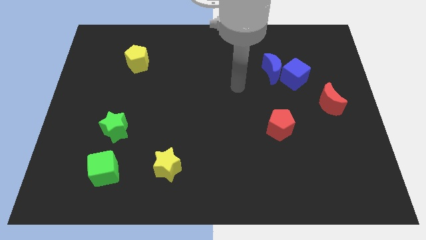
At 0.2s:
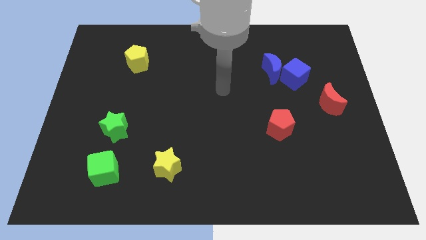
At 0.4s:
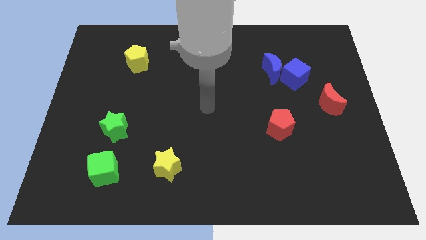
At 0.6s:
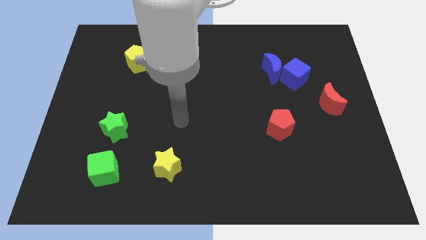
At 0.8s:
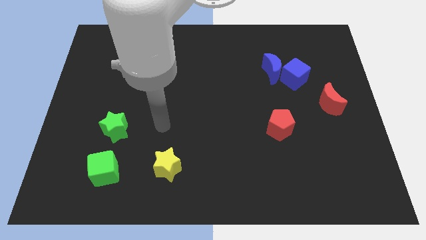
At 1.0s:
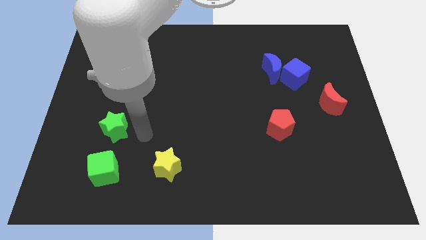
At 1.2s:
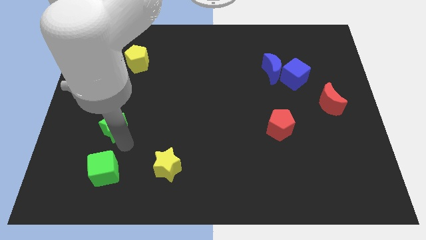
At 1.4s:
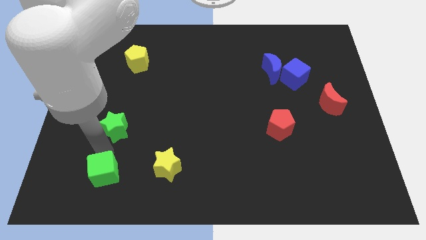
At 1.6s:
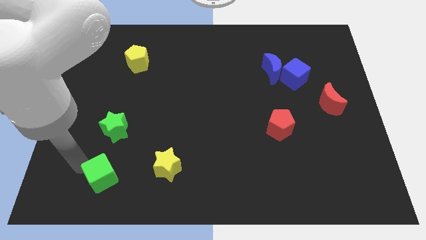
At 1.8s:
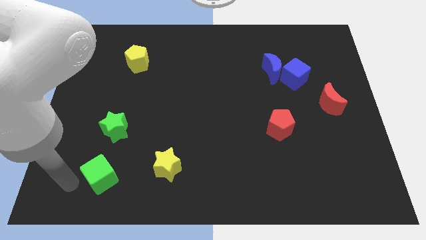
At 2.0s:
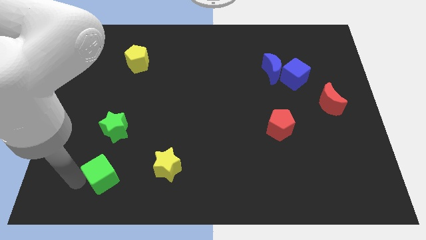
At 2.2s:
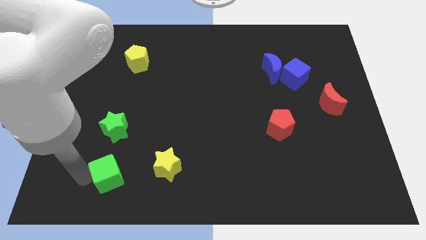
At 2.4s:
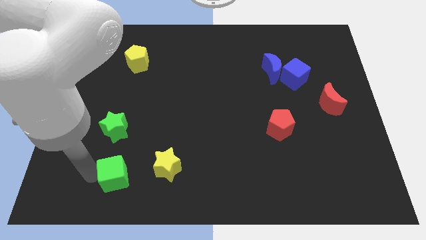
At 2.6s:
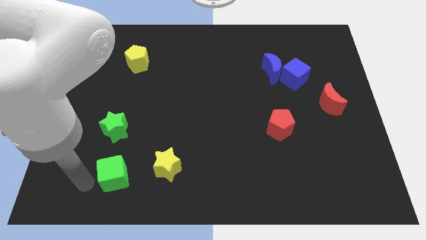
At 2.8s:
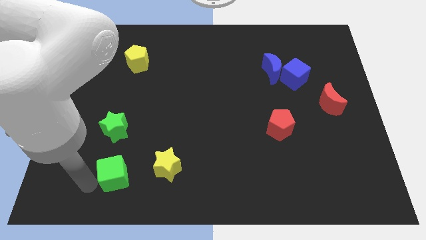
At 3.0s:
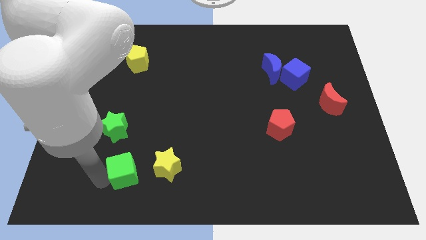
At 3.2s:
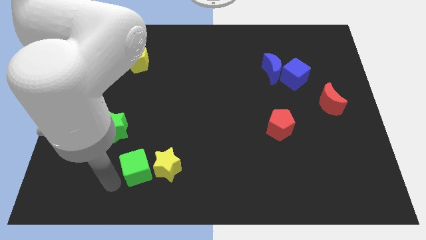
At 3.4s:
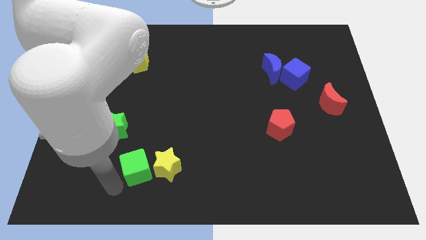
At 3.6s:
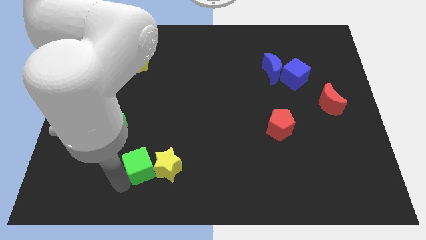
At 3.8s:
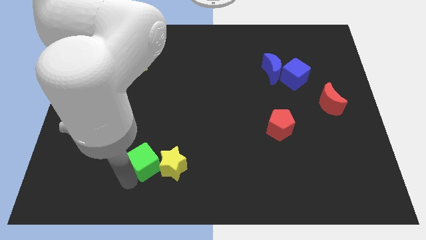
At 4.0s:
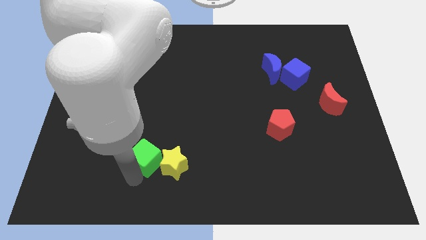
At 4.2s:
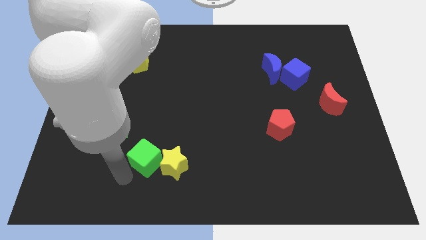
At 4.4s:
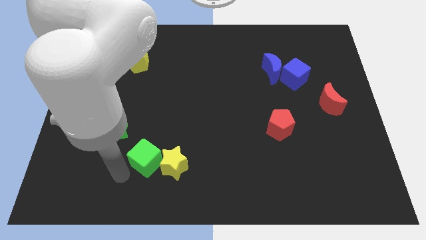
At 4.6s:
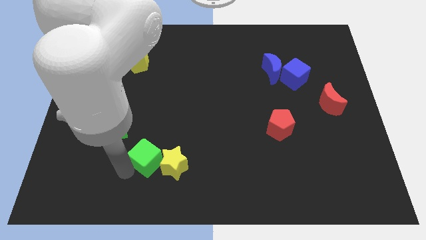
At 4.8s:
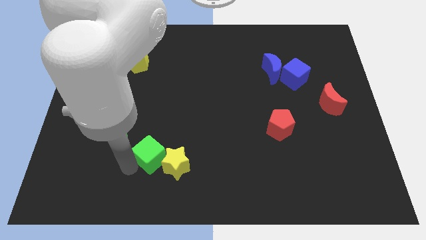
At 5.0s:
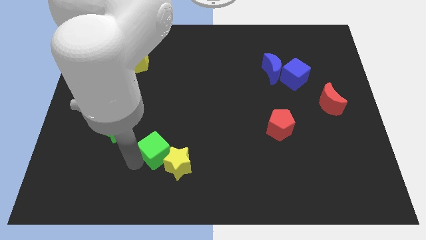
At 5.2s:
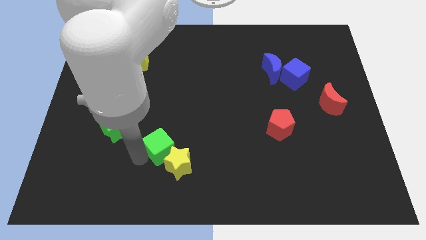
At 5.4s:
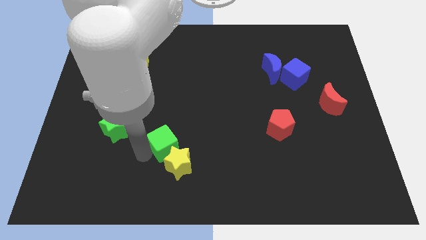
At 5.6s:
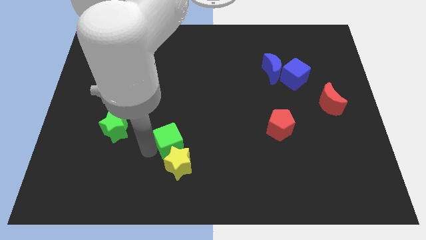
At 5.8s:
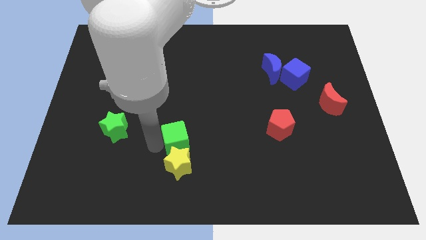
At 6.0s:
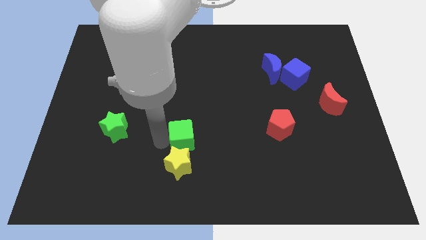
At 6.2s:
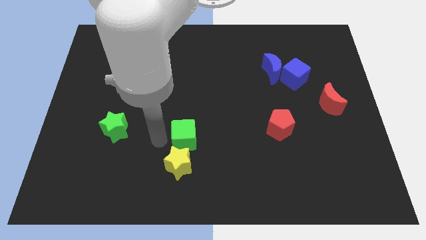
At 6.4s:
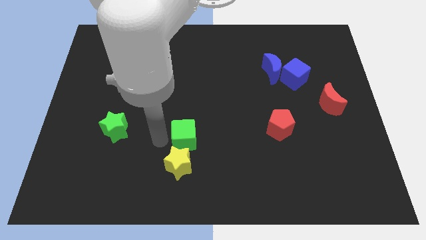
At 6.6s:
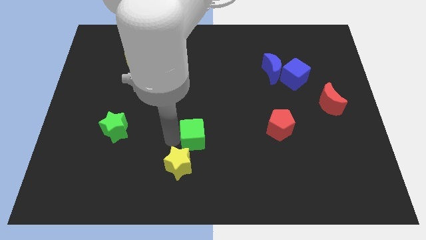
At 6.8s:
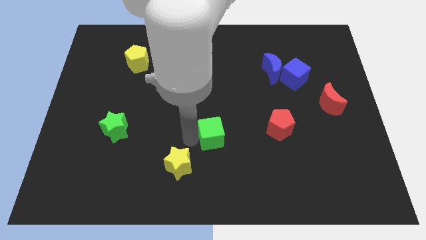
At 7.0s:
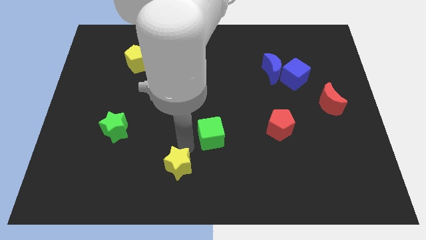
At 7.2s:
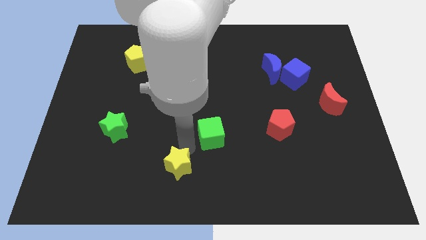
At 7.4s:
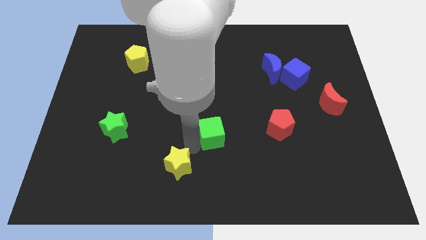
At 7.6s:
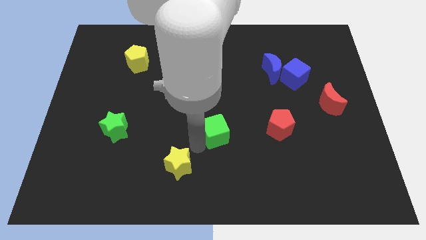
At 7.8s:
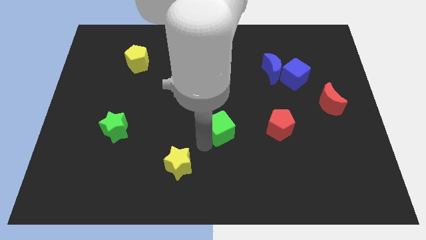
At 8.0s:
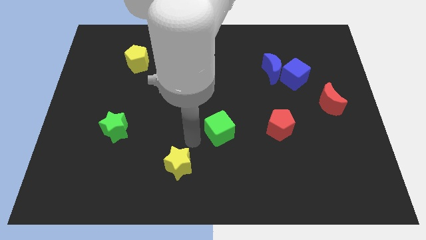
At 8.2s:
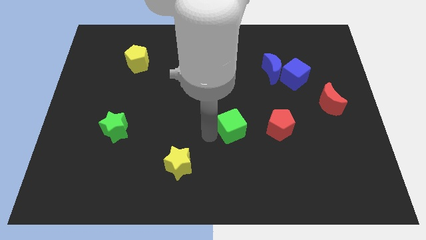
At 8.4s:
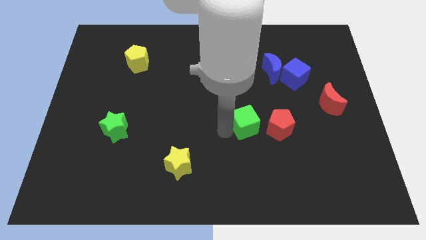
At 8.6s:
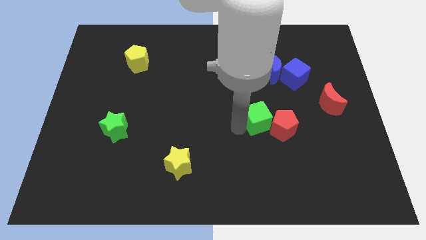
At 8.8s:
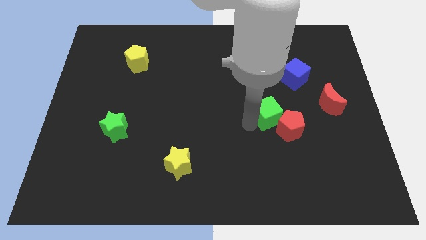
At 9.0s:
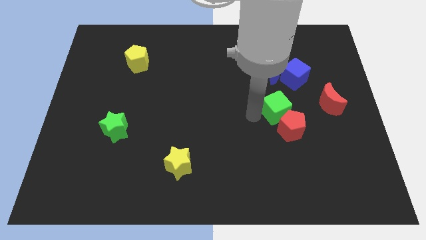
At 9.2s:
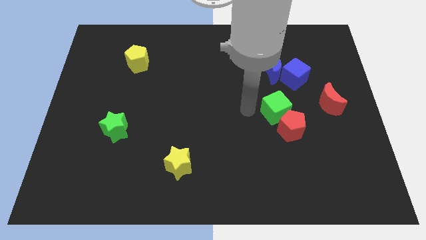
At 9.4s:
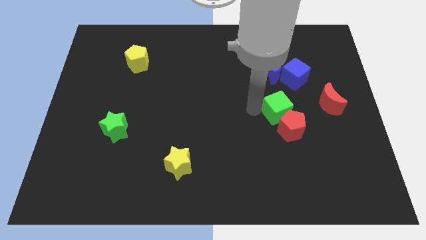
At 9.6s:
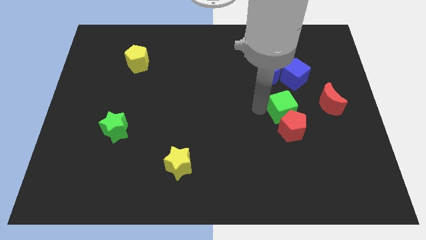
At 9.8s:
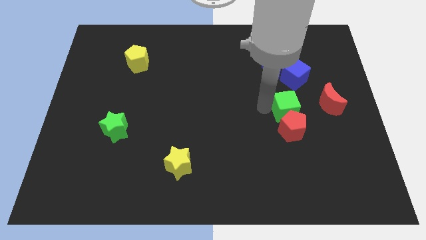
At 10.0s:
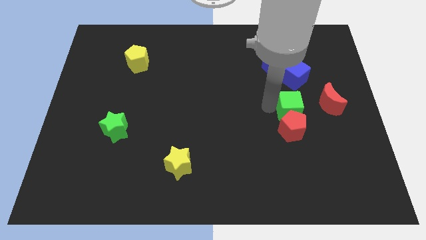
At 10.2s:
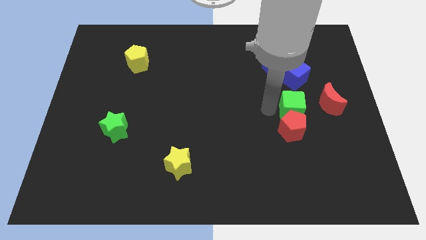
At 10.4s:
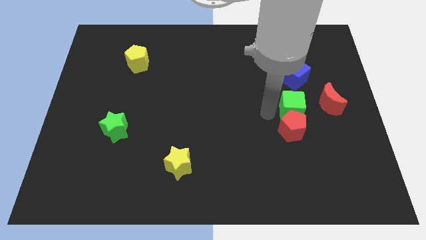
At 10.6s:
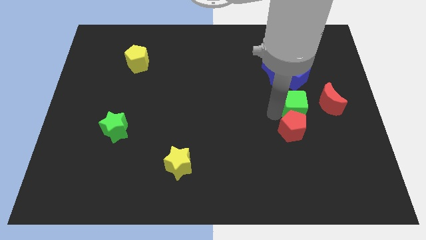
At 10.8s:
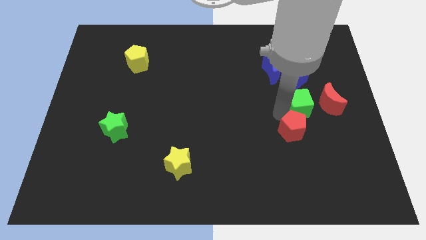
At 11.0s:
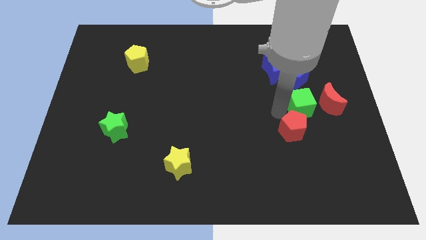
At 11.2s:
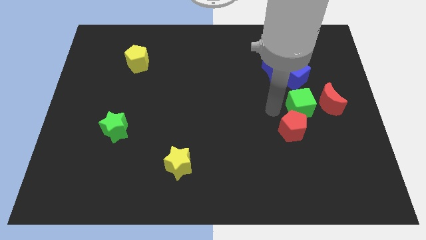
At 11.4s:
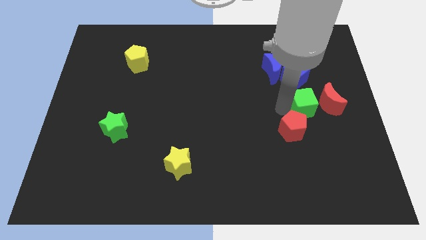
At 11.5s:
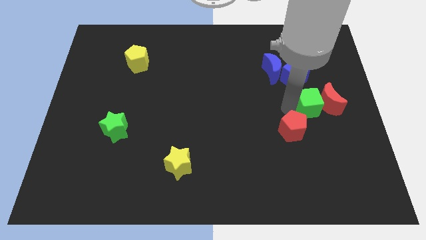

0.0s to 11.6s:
put the green cube next to the red moon
